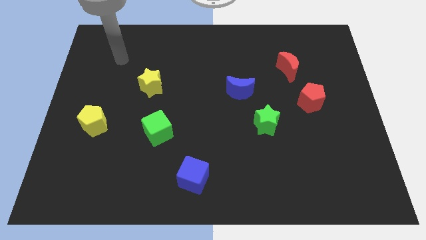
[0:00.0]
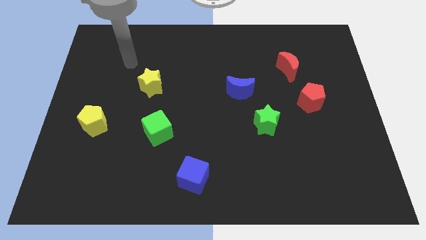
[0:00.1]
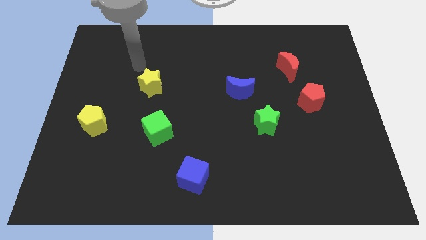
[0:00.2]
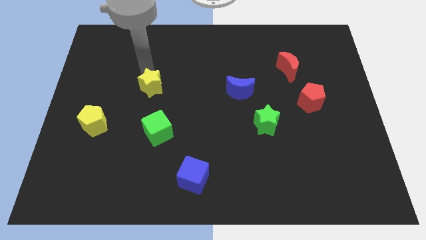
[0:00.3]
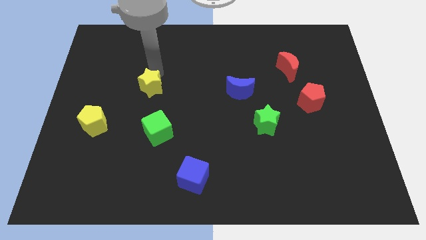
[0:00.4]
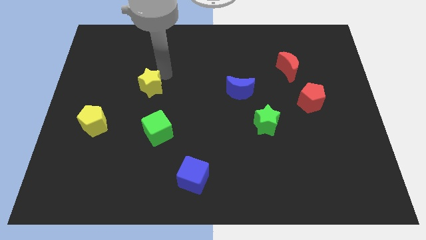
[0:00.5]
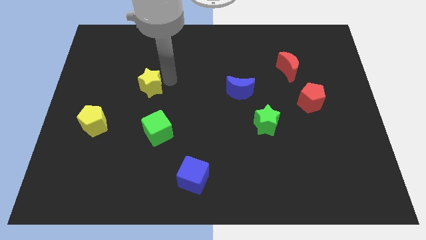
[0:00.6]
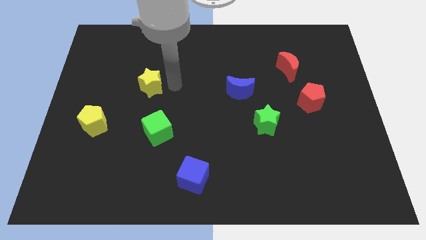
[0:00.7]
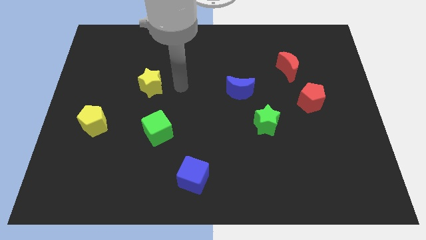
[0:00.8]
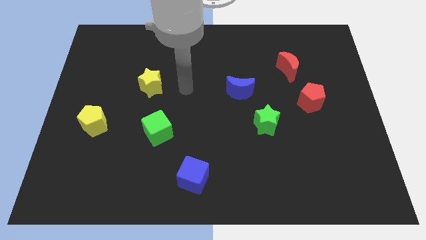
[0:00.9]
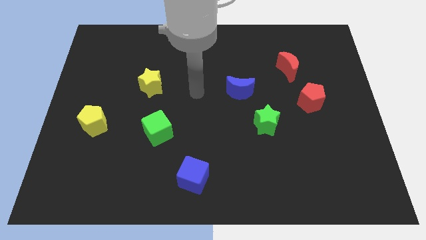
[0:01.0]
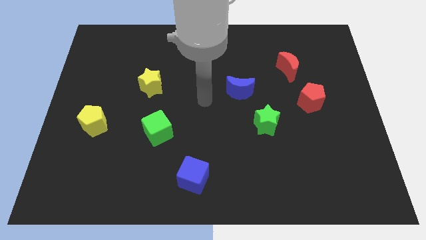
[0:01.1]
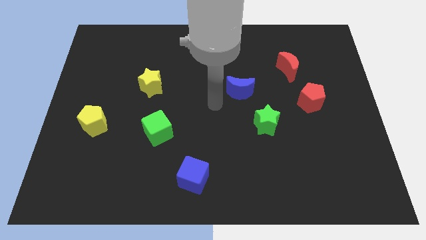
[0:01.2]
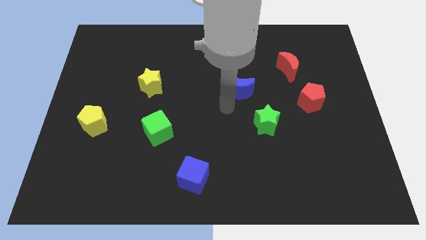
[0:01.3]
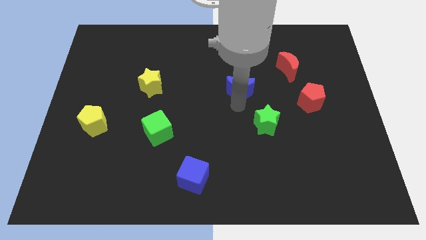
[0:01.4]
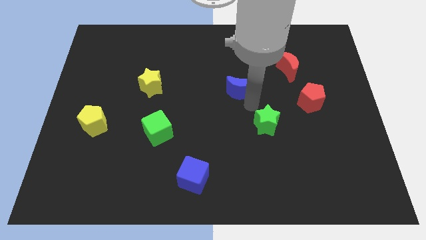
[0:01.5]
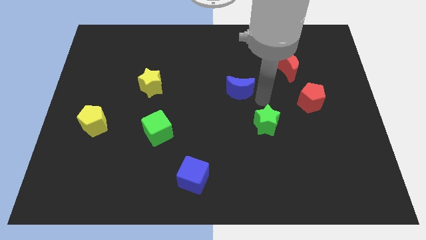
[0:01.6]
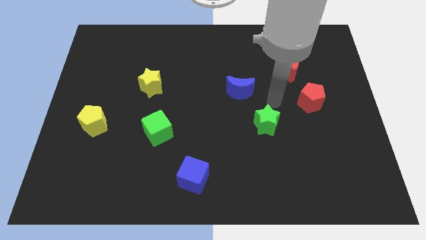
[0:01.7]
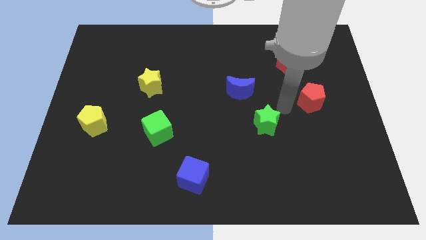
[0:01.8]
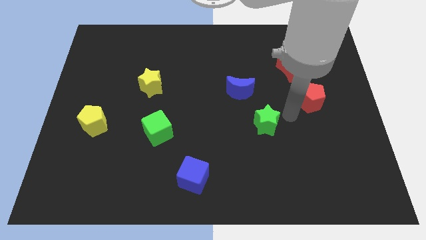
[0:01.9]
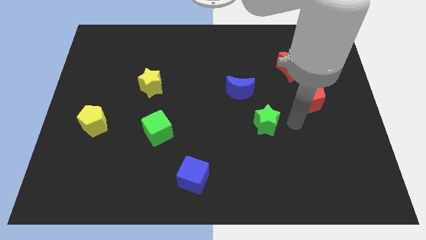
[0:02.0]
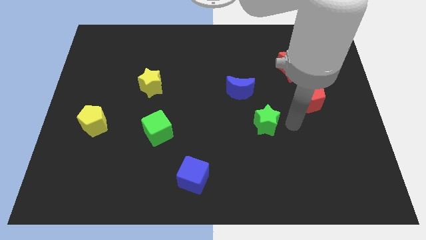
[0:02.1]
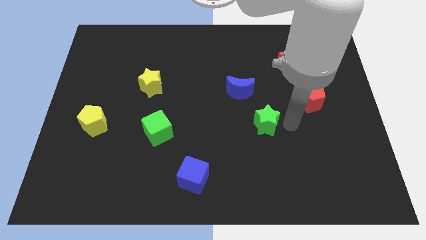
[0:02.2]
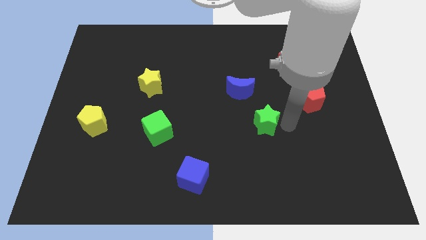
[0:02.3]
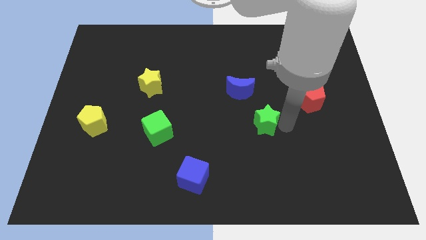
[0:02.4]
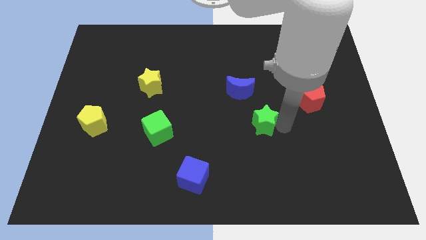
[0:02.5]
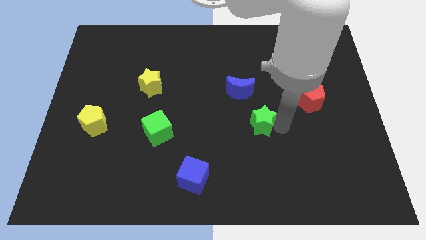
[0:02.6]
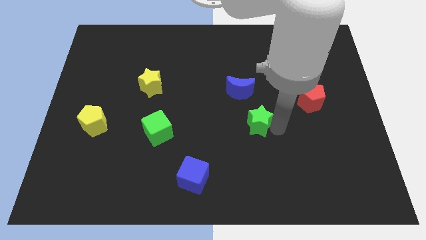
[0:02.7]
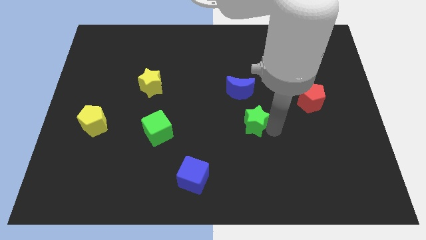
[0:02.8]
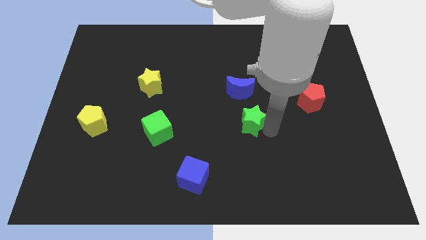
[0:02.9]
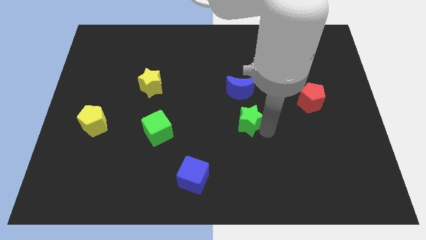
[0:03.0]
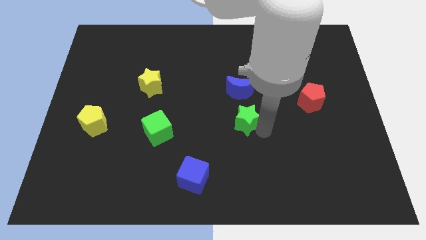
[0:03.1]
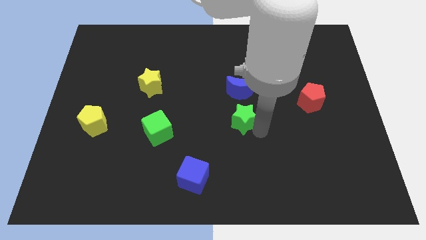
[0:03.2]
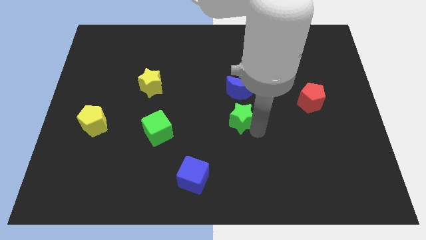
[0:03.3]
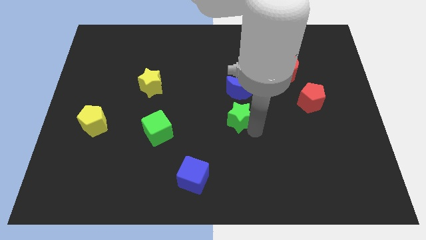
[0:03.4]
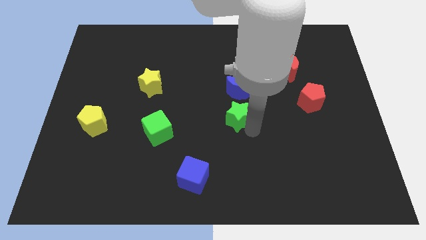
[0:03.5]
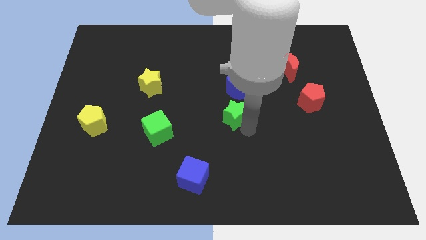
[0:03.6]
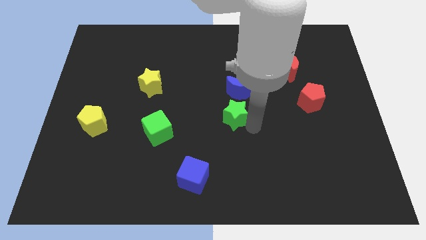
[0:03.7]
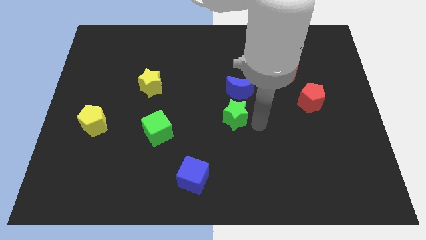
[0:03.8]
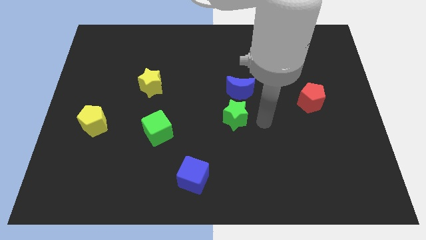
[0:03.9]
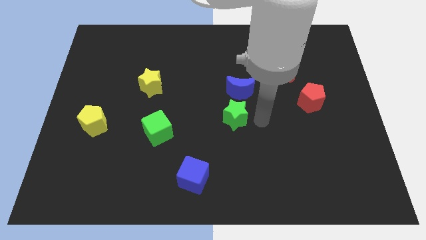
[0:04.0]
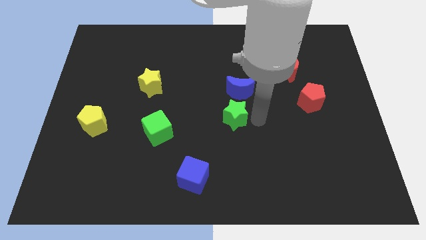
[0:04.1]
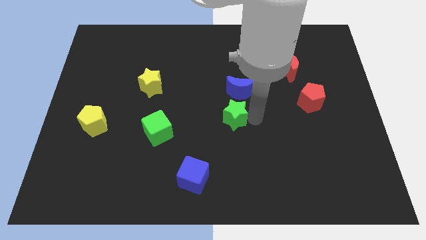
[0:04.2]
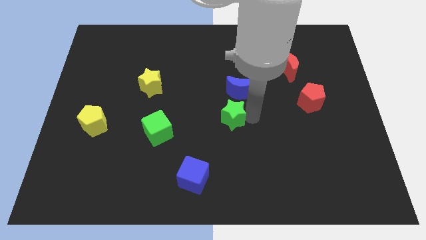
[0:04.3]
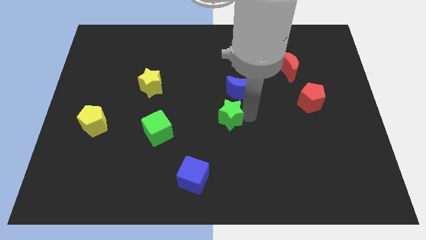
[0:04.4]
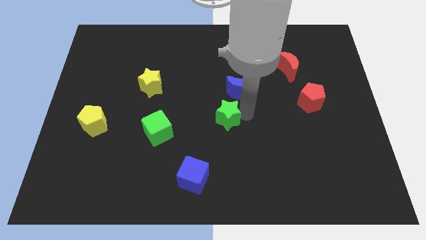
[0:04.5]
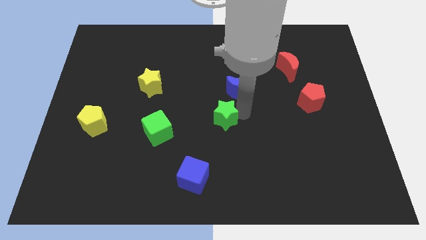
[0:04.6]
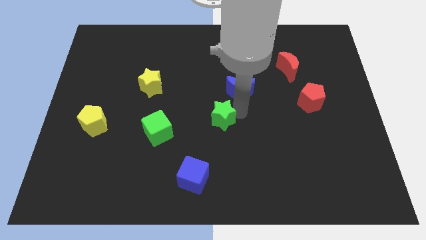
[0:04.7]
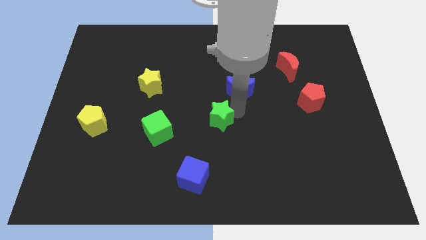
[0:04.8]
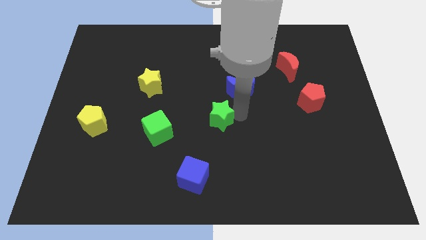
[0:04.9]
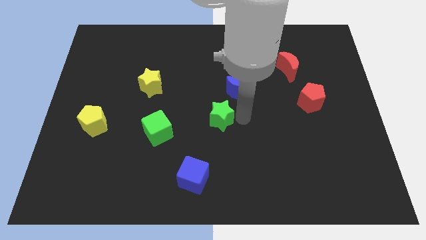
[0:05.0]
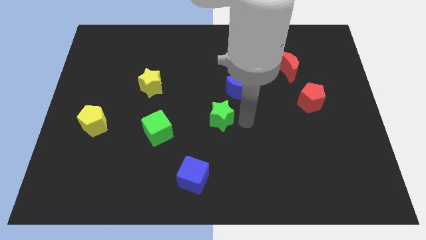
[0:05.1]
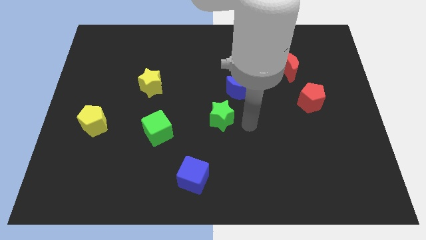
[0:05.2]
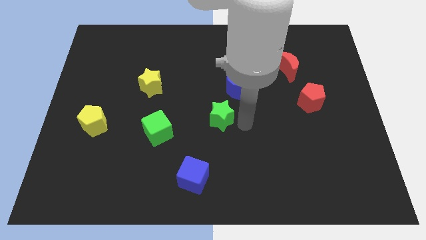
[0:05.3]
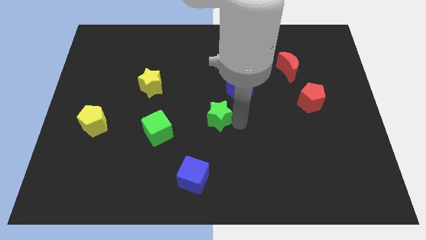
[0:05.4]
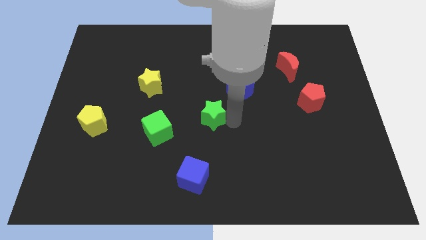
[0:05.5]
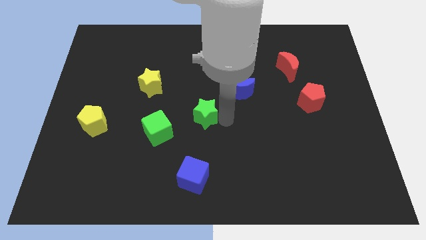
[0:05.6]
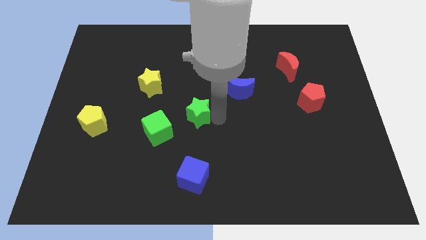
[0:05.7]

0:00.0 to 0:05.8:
put the green star to the top right side of the green cube

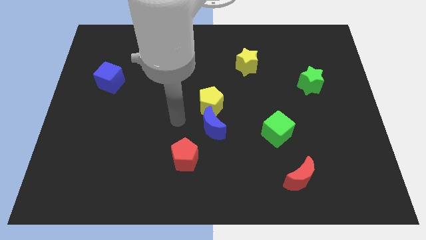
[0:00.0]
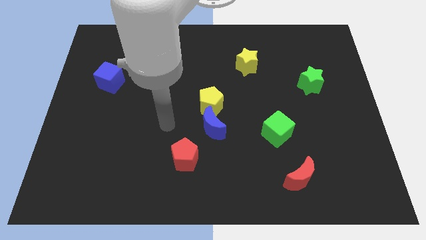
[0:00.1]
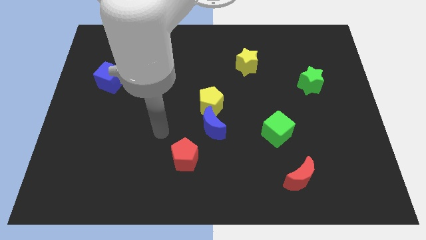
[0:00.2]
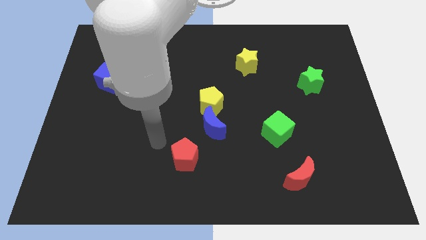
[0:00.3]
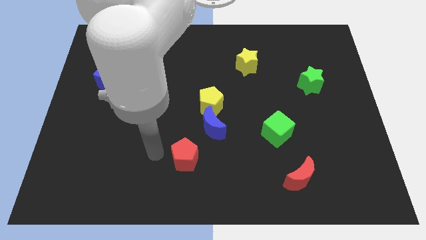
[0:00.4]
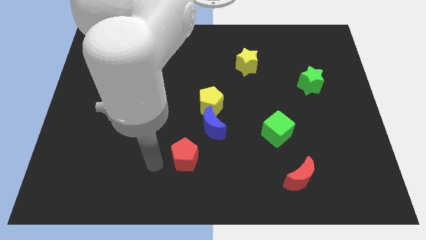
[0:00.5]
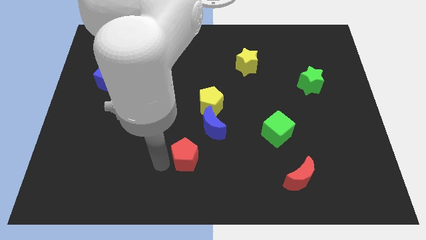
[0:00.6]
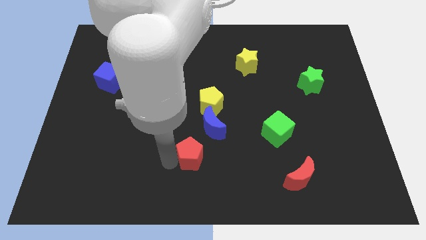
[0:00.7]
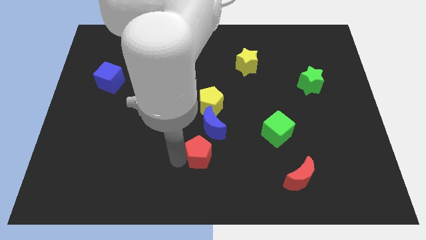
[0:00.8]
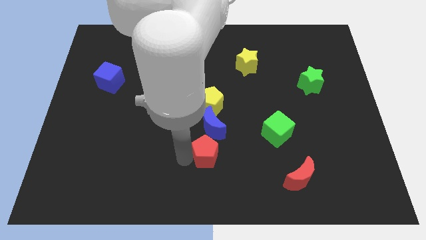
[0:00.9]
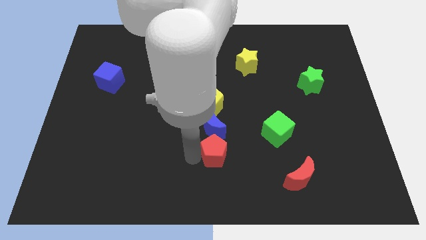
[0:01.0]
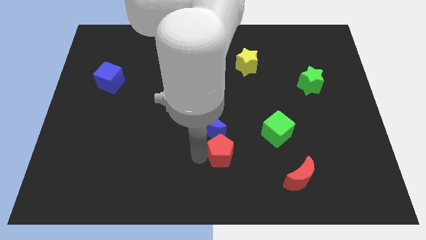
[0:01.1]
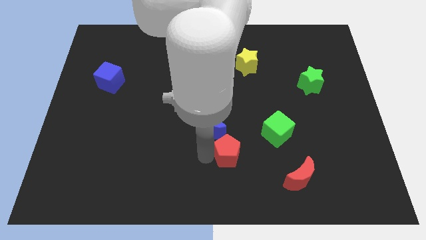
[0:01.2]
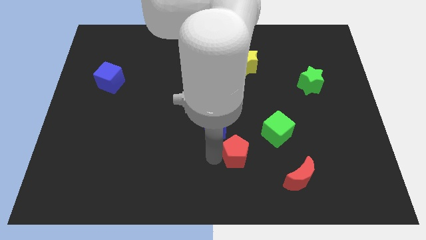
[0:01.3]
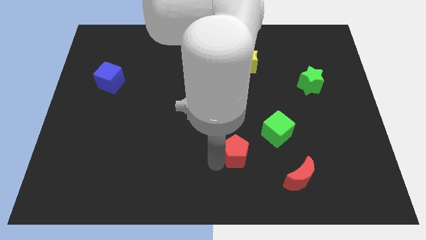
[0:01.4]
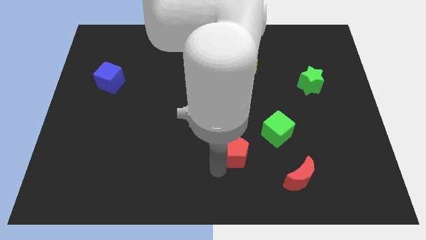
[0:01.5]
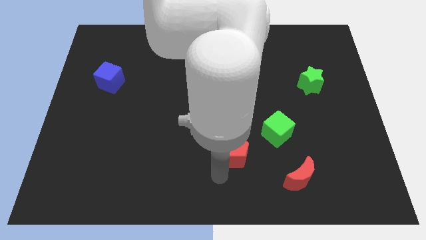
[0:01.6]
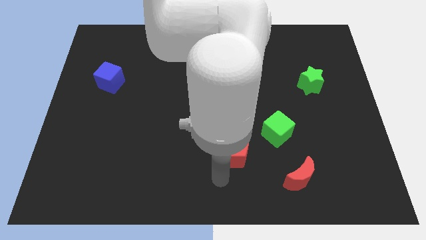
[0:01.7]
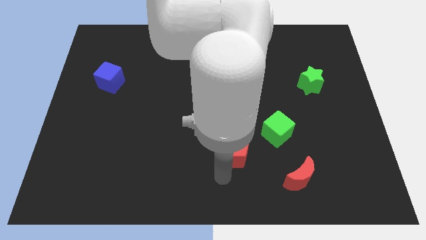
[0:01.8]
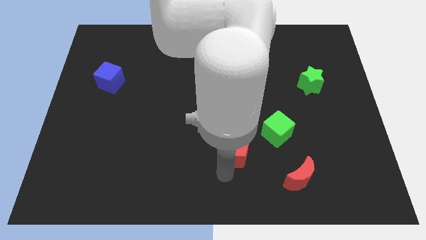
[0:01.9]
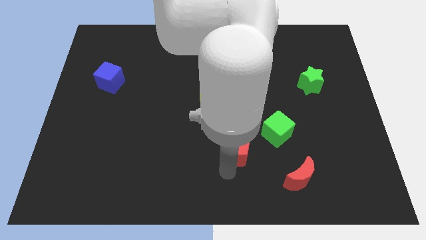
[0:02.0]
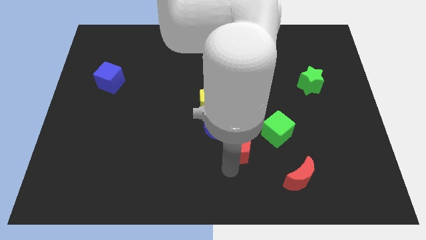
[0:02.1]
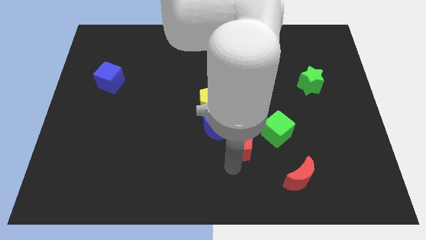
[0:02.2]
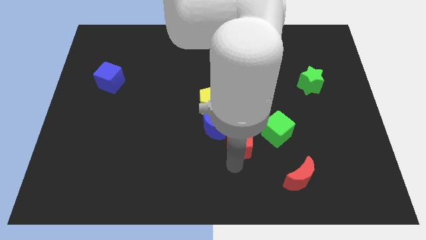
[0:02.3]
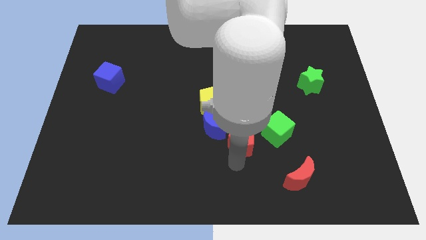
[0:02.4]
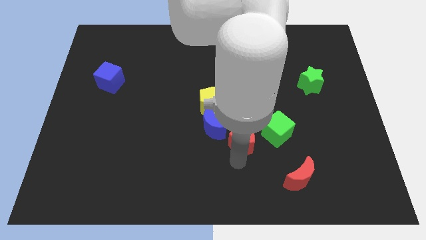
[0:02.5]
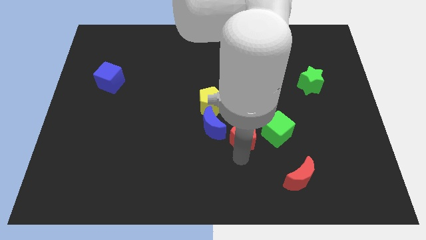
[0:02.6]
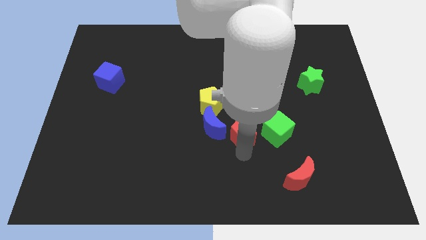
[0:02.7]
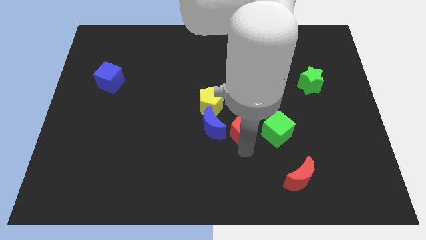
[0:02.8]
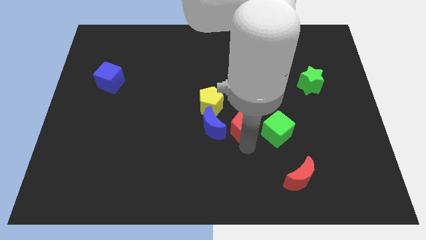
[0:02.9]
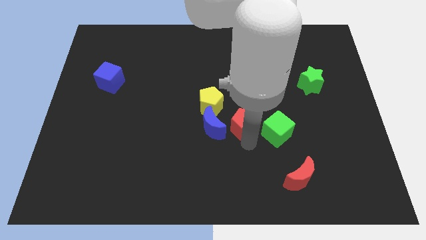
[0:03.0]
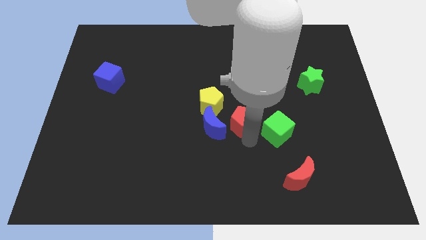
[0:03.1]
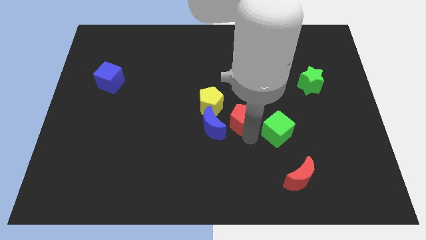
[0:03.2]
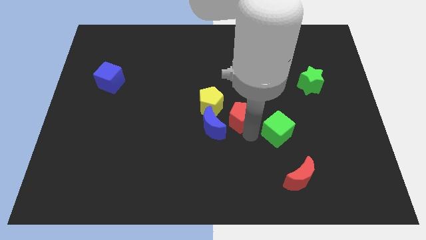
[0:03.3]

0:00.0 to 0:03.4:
move the red pentagon to the right of the yellow pentagon
